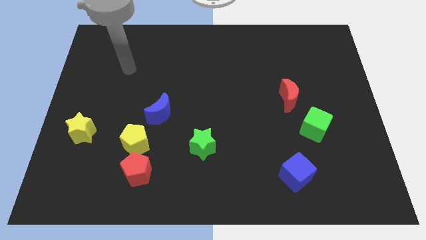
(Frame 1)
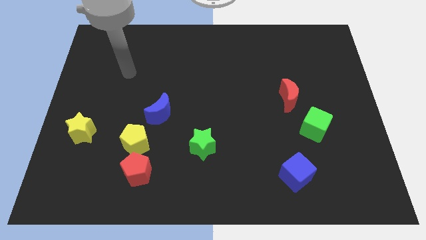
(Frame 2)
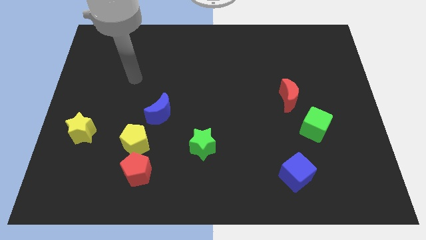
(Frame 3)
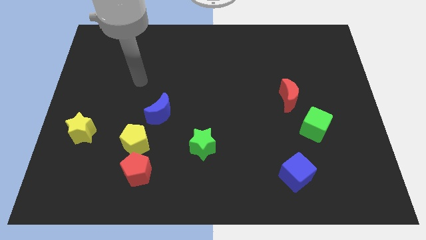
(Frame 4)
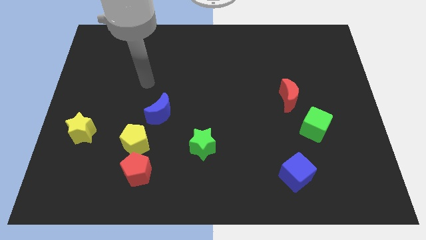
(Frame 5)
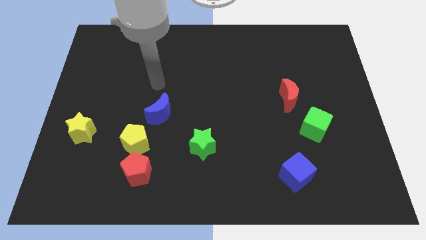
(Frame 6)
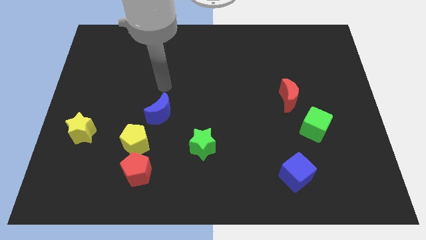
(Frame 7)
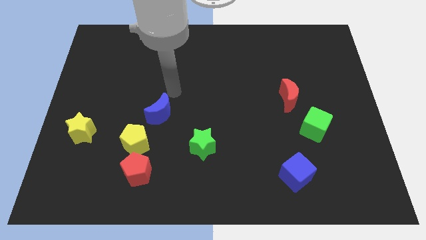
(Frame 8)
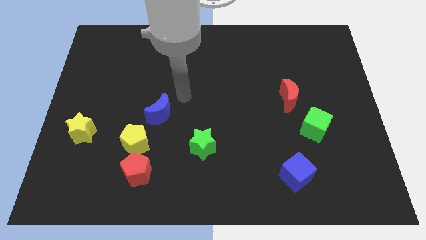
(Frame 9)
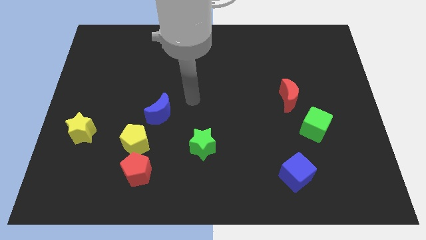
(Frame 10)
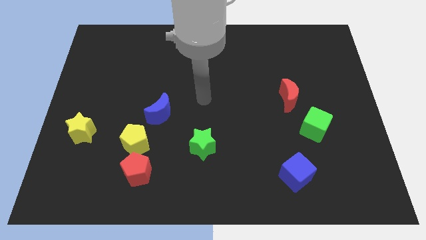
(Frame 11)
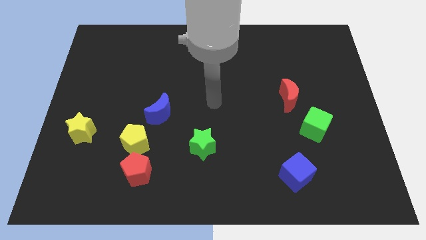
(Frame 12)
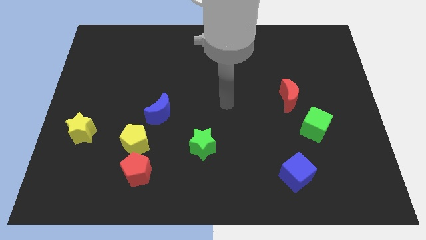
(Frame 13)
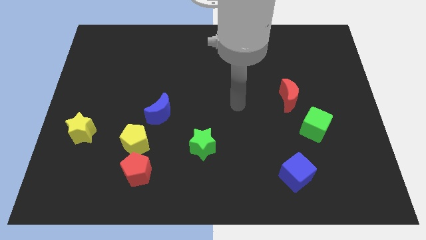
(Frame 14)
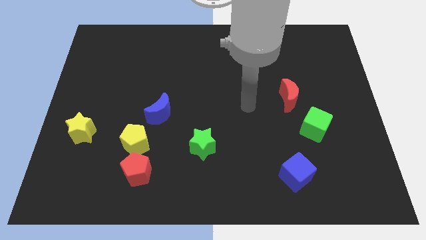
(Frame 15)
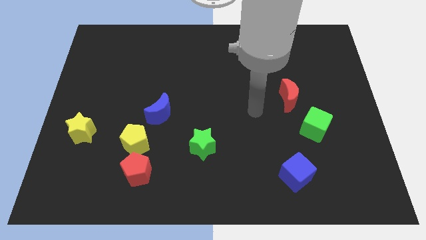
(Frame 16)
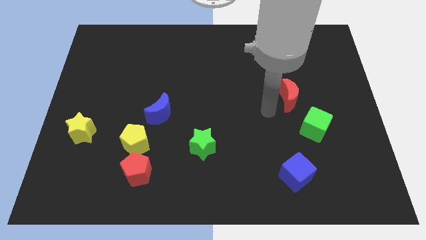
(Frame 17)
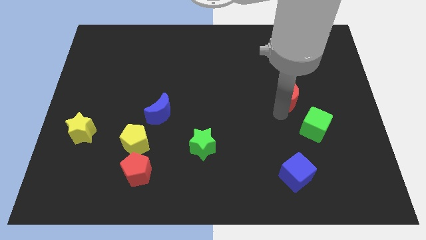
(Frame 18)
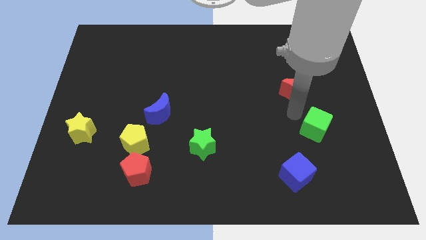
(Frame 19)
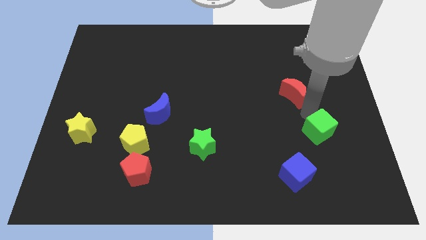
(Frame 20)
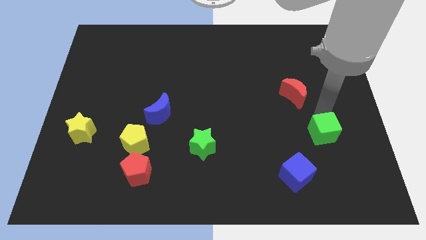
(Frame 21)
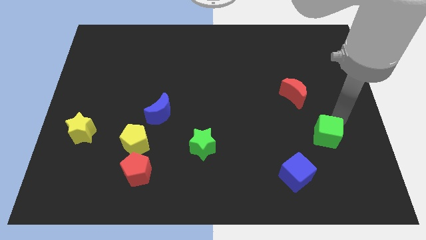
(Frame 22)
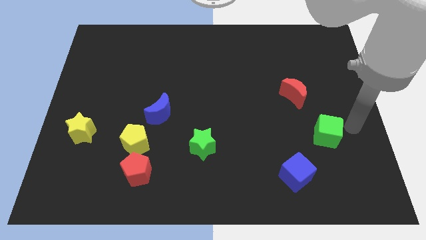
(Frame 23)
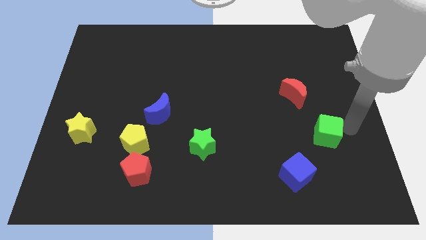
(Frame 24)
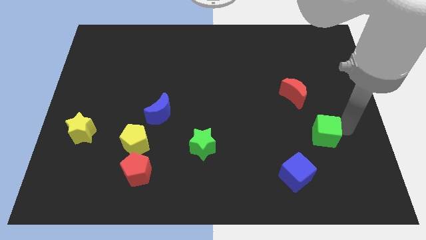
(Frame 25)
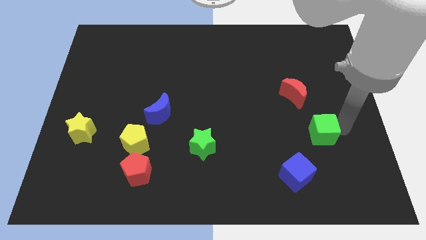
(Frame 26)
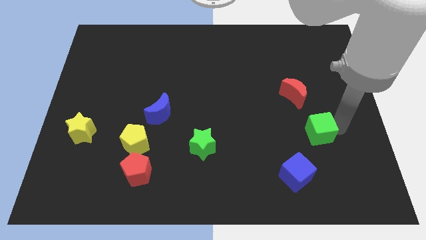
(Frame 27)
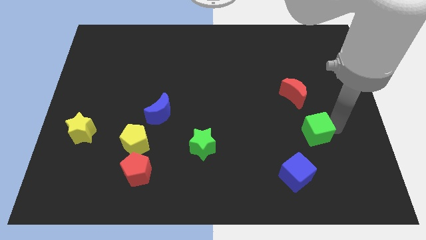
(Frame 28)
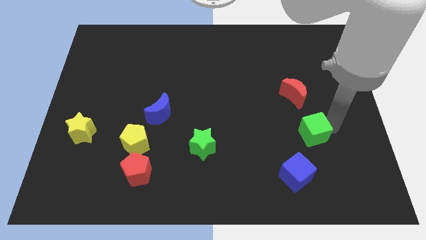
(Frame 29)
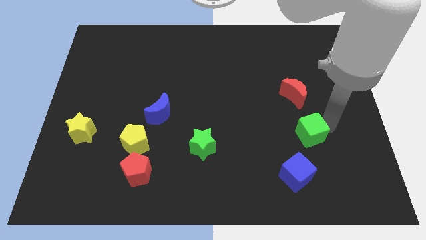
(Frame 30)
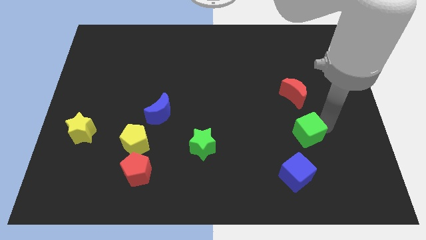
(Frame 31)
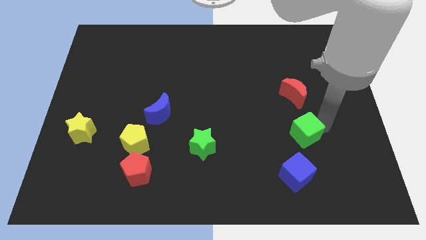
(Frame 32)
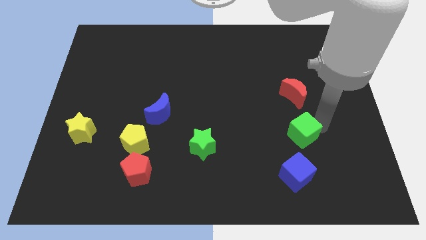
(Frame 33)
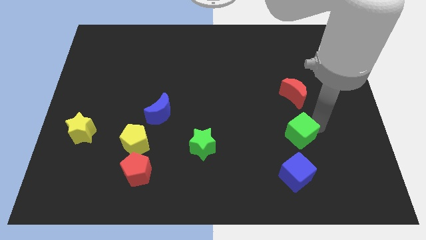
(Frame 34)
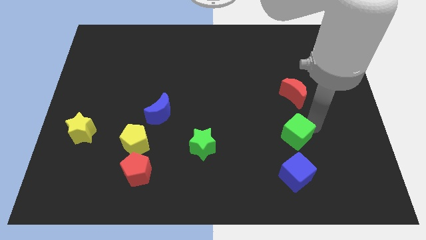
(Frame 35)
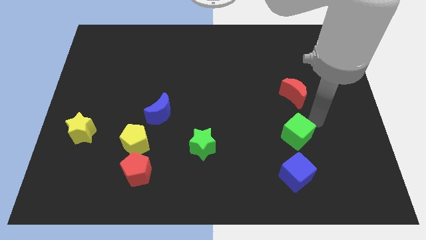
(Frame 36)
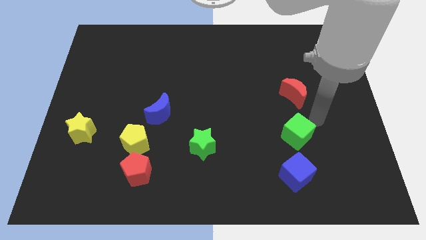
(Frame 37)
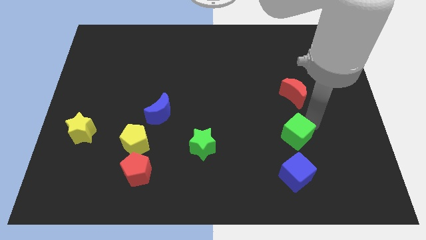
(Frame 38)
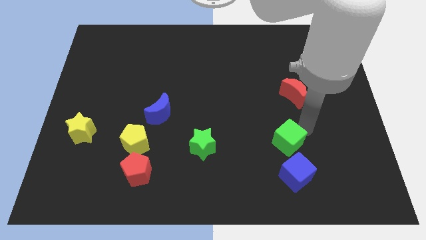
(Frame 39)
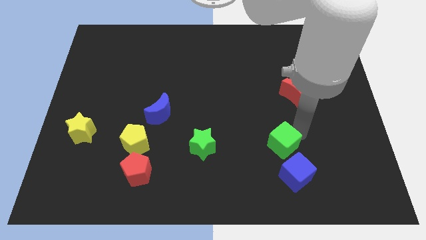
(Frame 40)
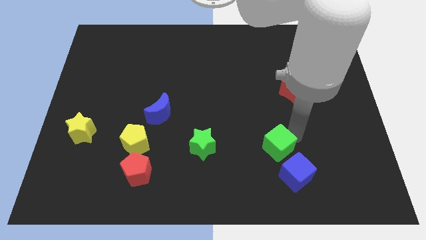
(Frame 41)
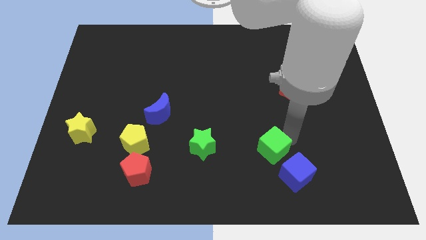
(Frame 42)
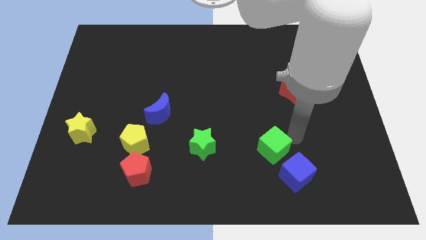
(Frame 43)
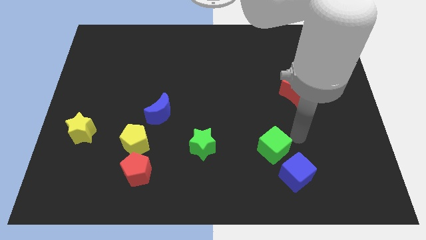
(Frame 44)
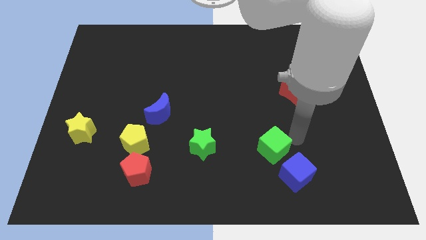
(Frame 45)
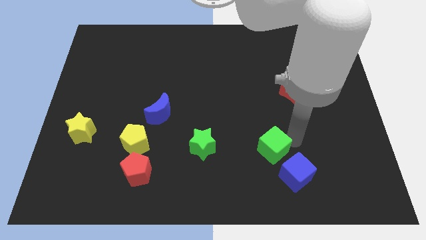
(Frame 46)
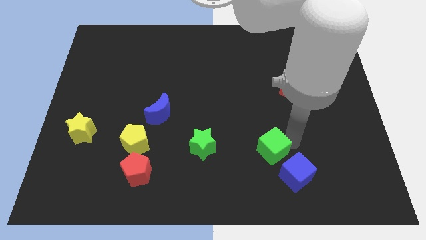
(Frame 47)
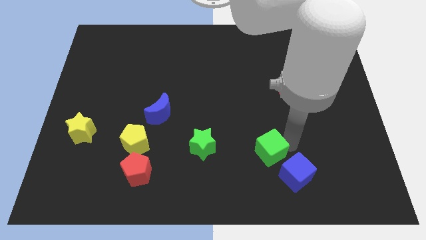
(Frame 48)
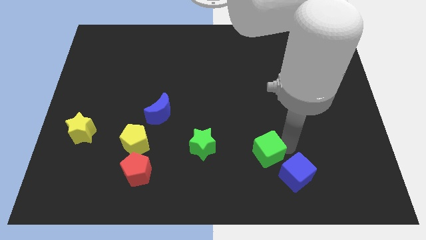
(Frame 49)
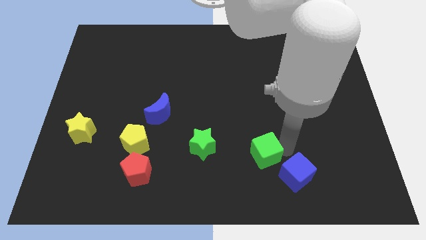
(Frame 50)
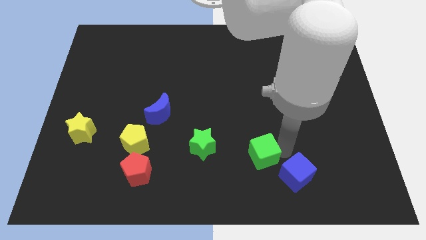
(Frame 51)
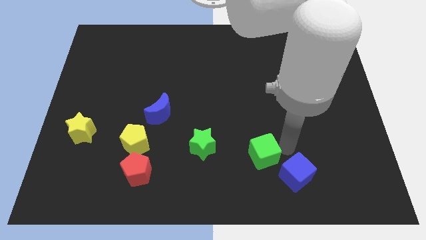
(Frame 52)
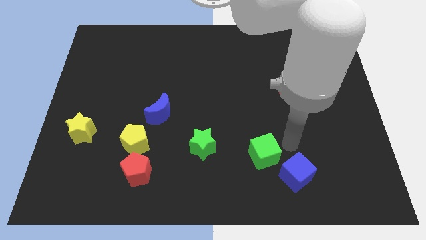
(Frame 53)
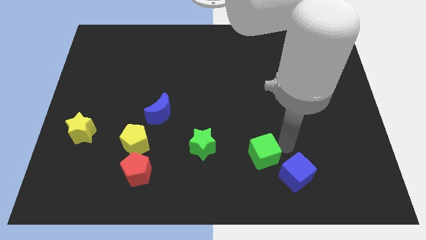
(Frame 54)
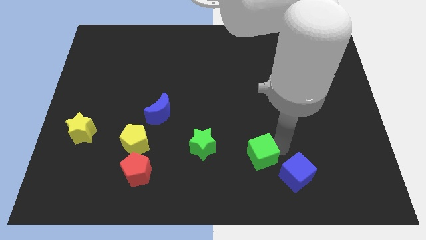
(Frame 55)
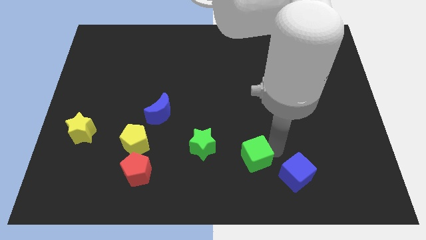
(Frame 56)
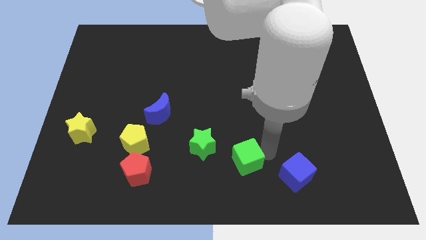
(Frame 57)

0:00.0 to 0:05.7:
put the green cube diagonally down and to the right of the green star

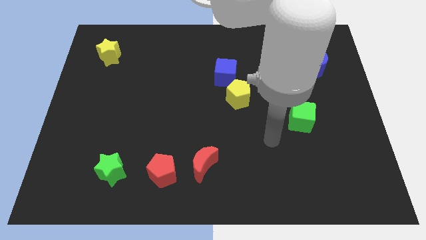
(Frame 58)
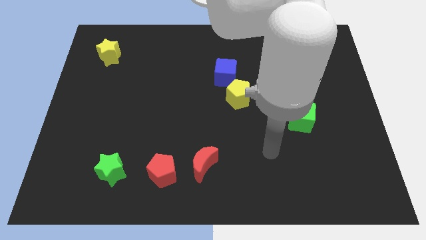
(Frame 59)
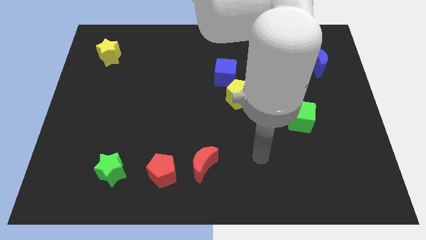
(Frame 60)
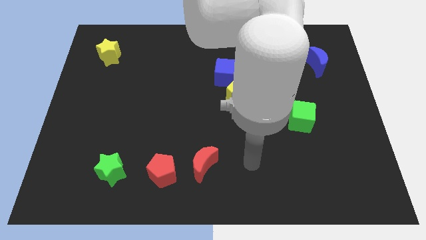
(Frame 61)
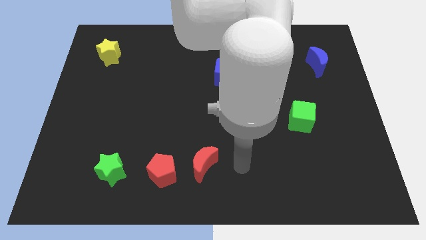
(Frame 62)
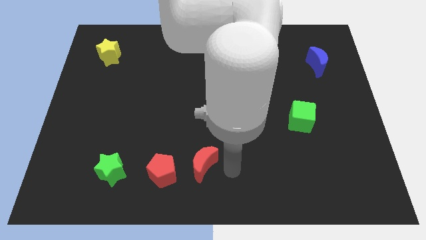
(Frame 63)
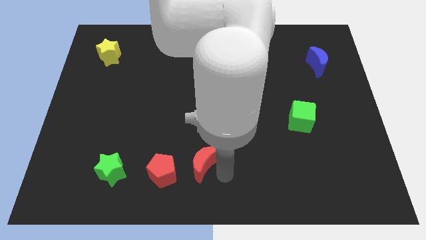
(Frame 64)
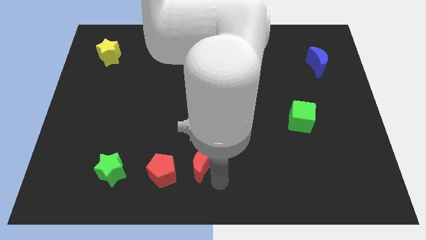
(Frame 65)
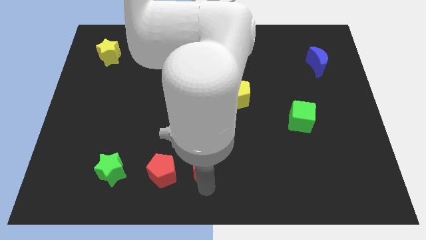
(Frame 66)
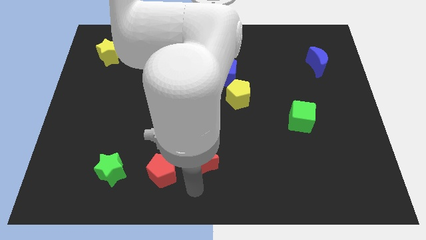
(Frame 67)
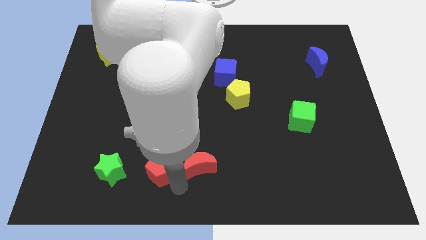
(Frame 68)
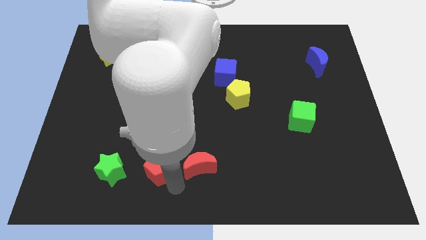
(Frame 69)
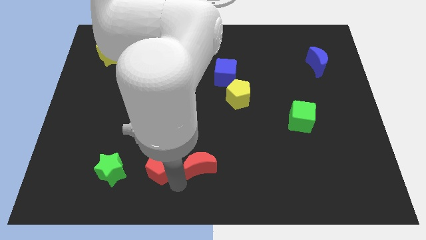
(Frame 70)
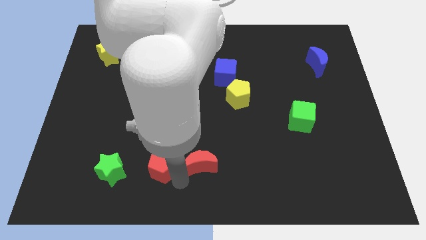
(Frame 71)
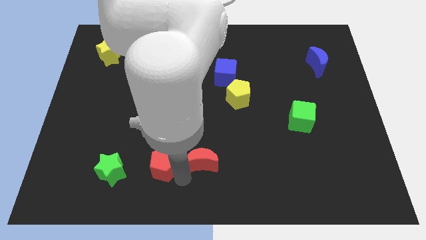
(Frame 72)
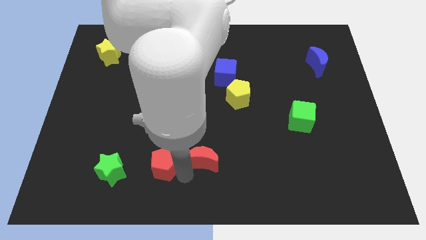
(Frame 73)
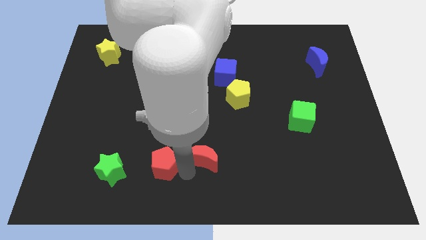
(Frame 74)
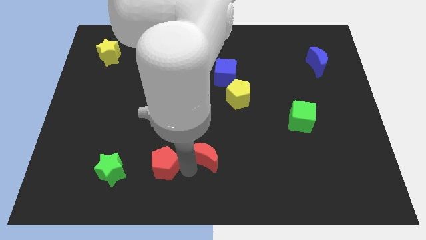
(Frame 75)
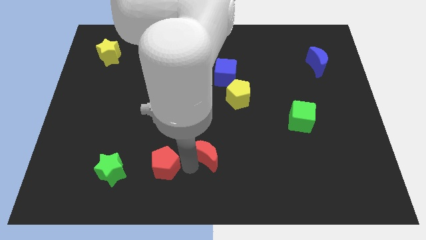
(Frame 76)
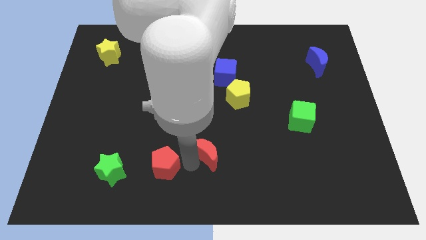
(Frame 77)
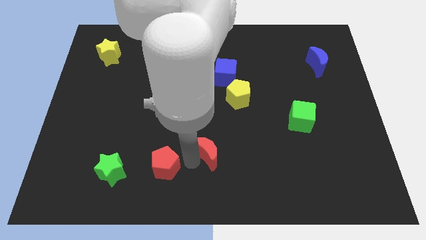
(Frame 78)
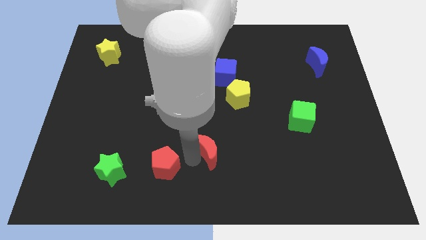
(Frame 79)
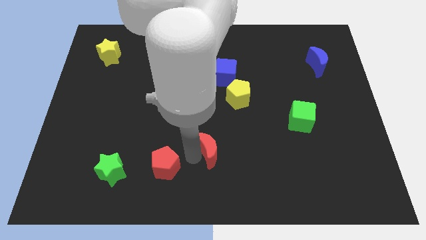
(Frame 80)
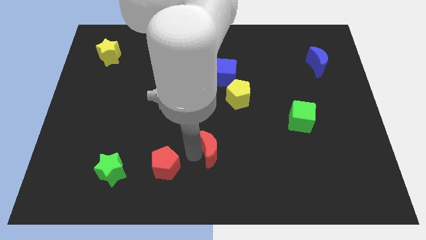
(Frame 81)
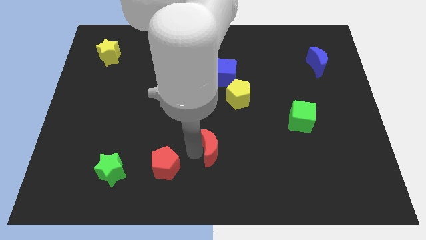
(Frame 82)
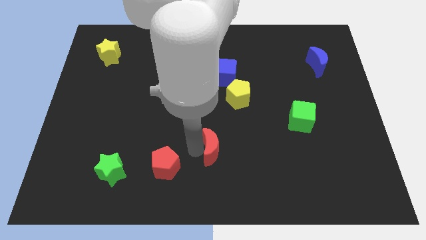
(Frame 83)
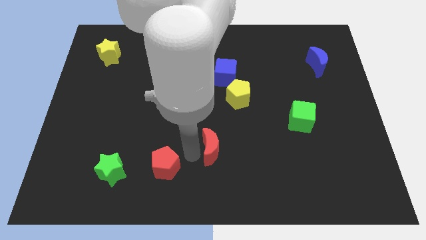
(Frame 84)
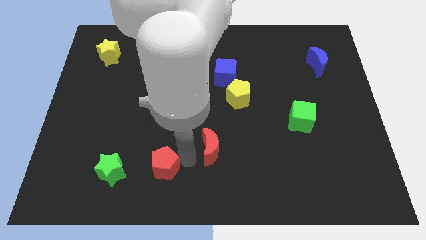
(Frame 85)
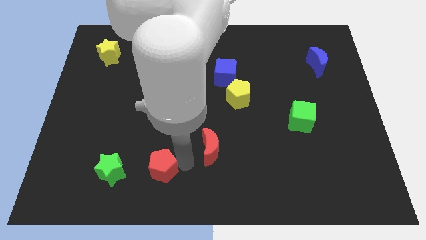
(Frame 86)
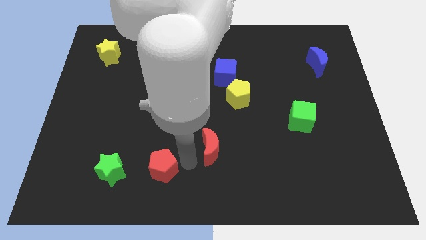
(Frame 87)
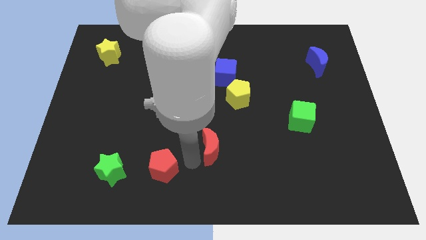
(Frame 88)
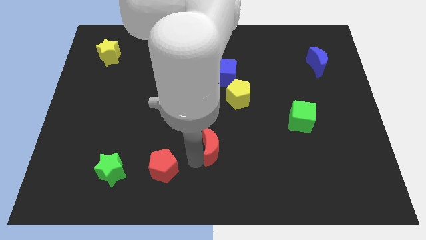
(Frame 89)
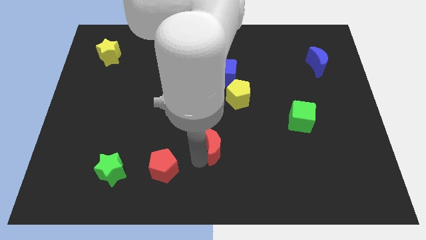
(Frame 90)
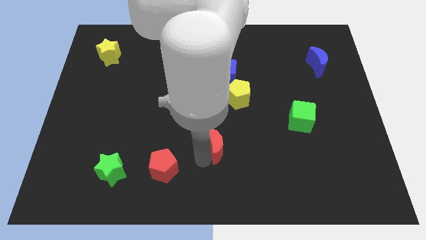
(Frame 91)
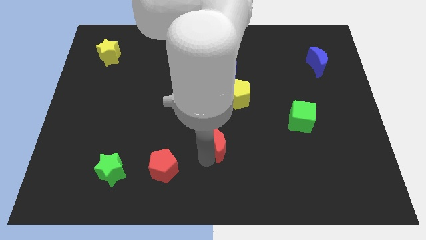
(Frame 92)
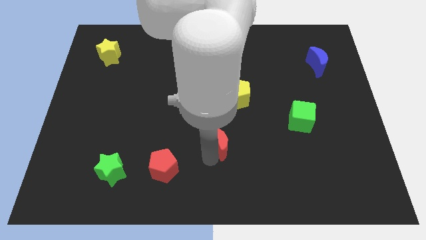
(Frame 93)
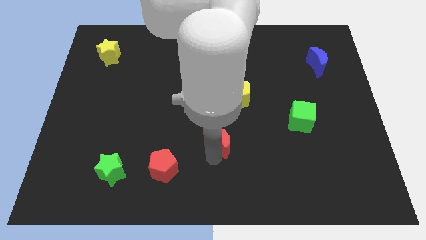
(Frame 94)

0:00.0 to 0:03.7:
move the red moon below the yellow pentagon
